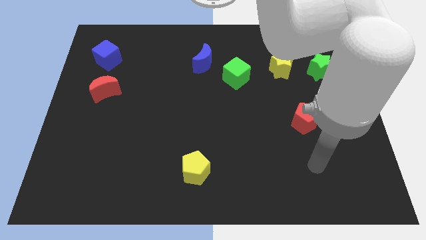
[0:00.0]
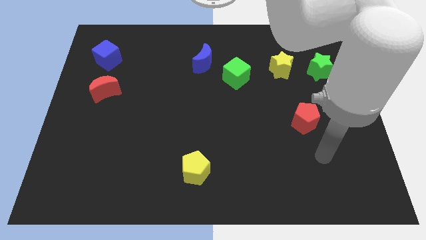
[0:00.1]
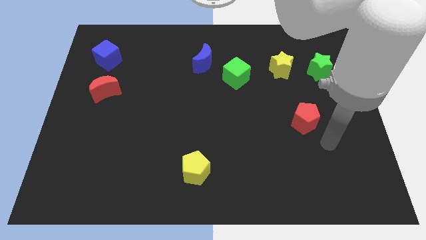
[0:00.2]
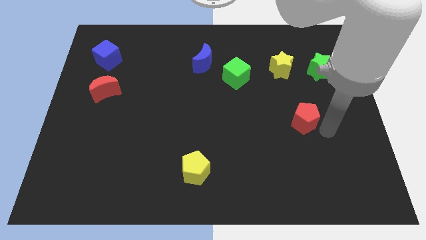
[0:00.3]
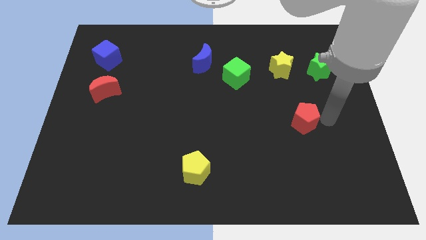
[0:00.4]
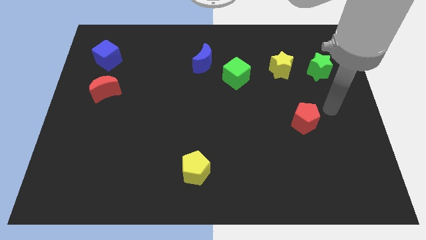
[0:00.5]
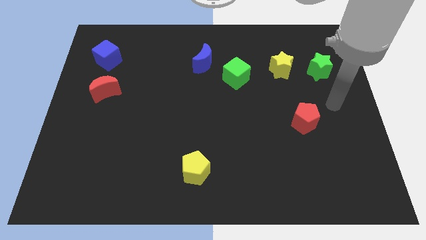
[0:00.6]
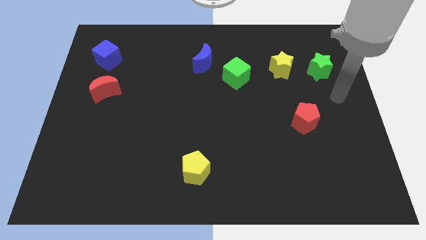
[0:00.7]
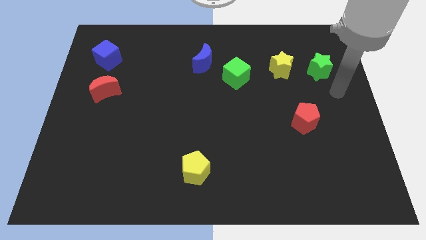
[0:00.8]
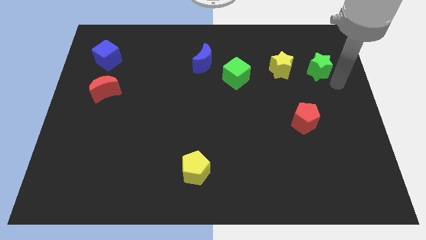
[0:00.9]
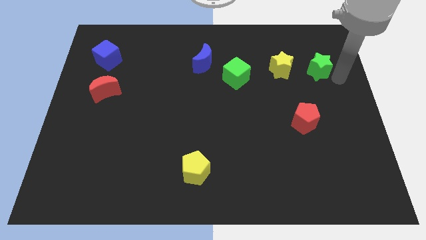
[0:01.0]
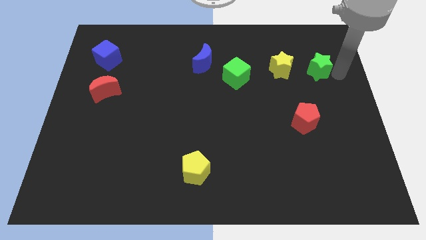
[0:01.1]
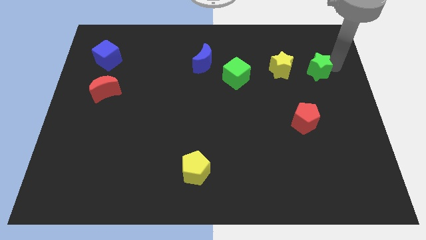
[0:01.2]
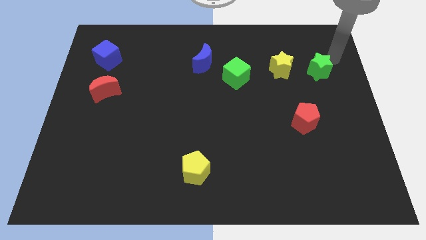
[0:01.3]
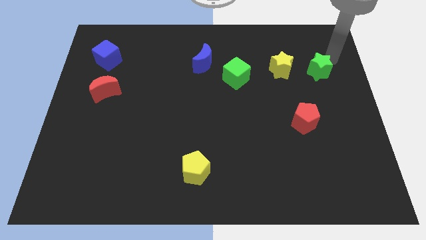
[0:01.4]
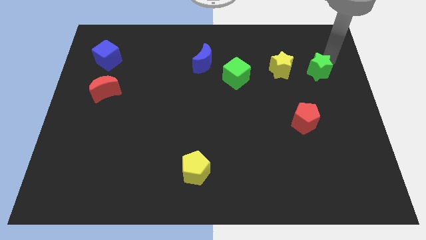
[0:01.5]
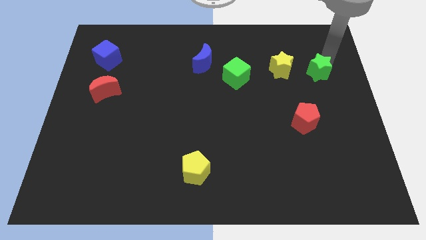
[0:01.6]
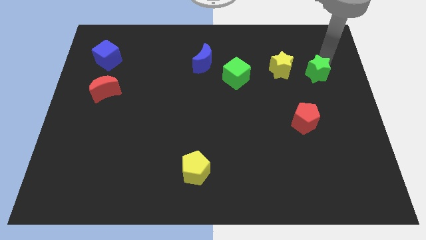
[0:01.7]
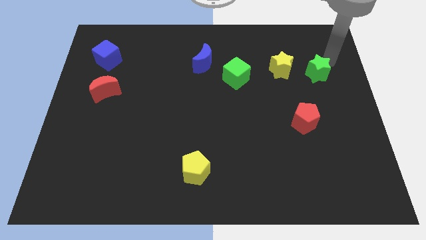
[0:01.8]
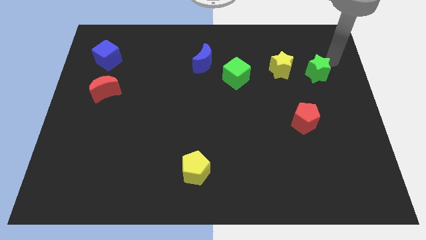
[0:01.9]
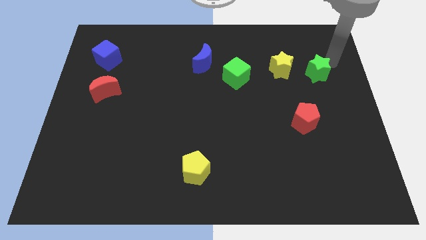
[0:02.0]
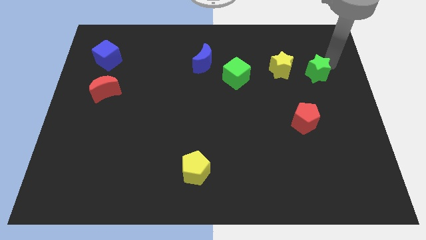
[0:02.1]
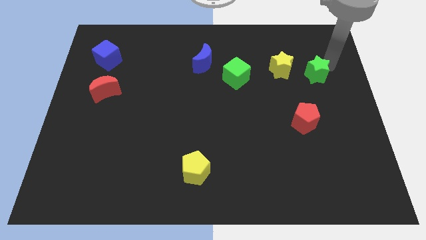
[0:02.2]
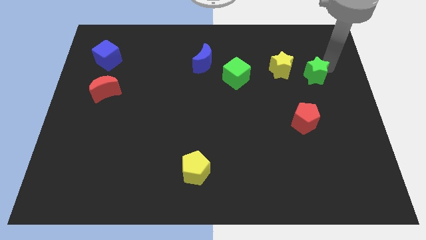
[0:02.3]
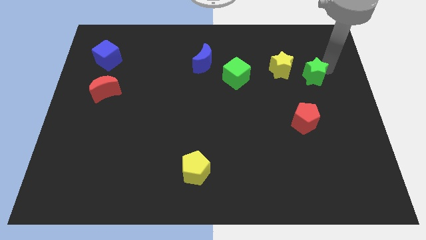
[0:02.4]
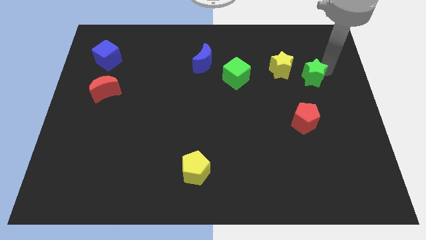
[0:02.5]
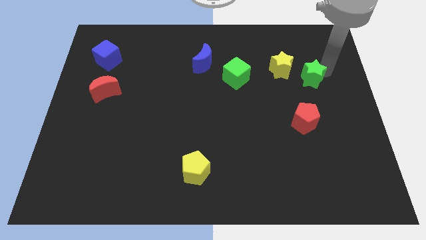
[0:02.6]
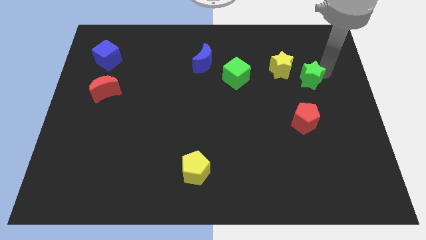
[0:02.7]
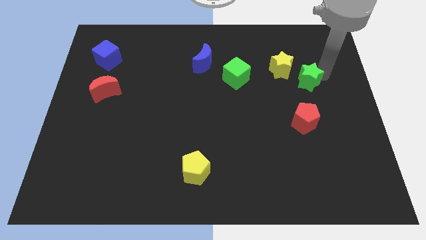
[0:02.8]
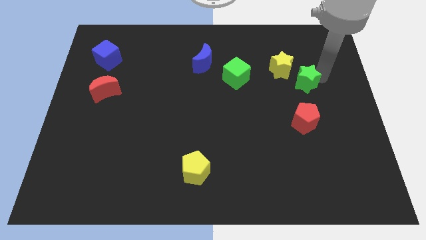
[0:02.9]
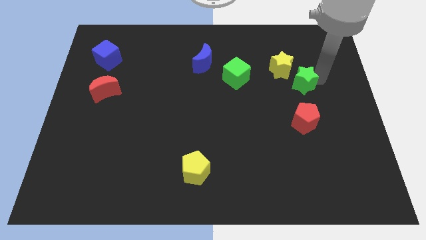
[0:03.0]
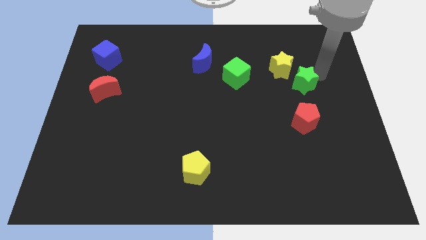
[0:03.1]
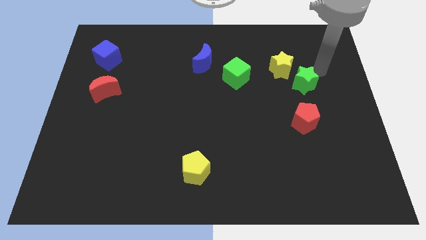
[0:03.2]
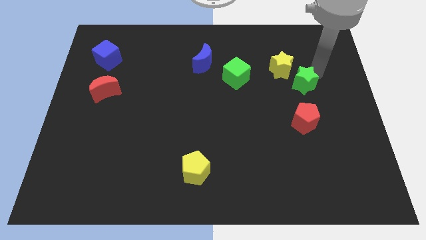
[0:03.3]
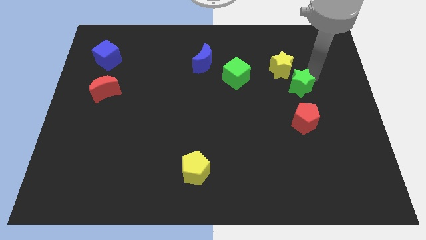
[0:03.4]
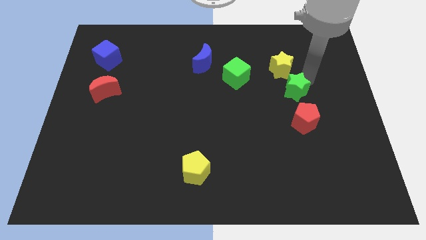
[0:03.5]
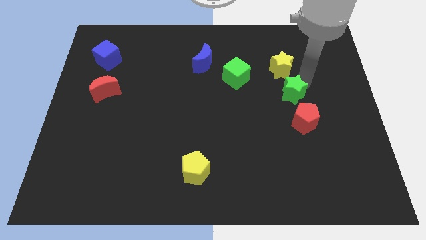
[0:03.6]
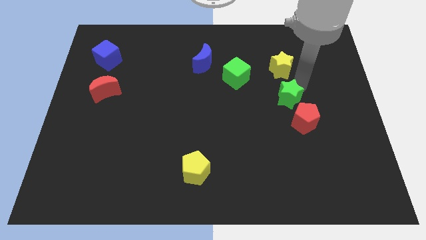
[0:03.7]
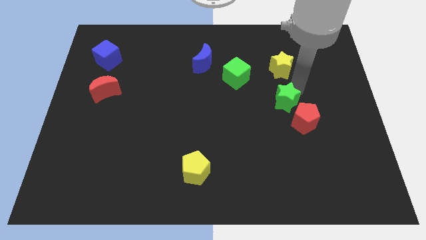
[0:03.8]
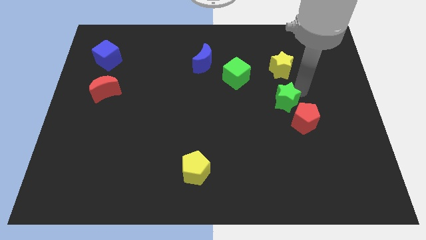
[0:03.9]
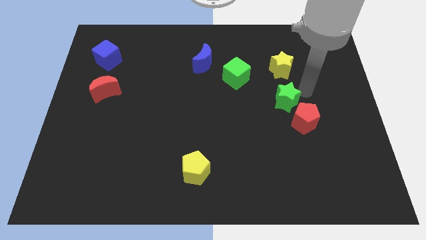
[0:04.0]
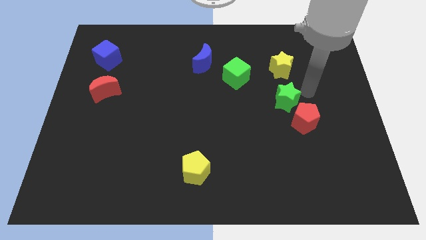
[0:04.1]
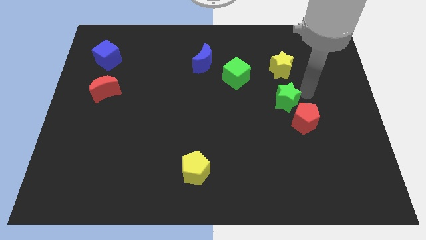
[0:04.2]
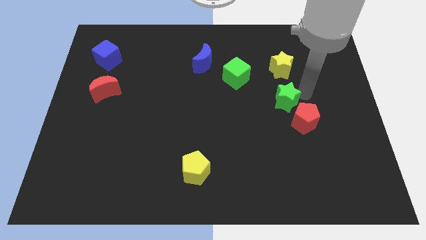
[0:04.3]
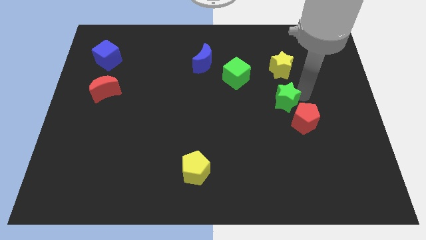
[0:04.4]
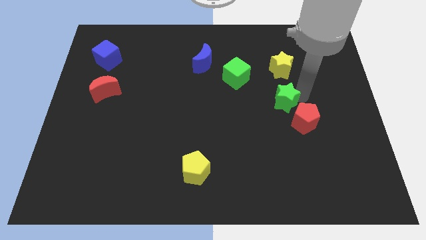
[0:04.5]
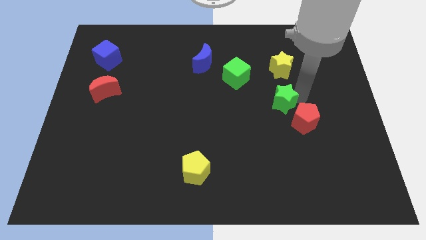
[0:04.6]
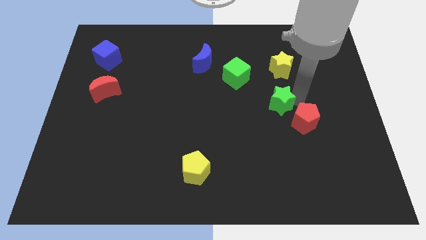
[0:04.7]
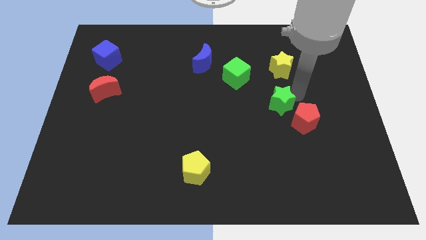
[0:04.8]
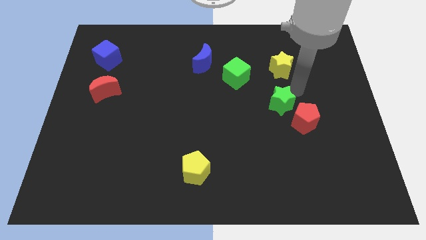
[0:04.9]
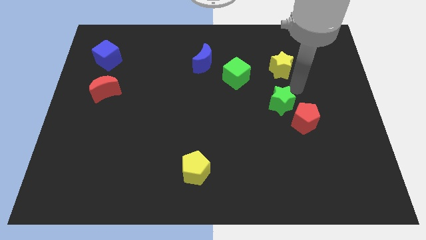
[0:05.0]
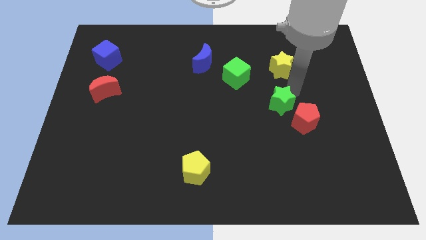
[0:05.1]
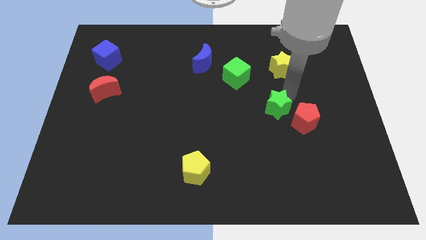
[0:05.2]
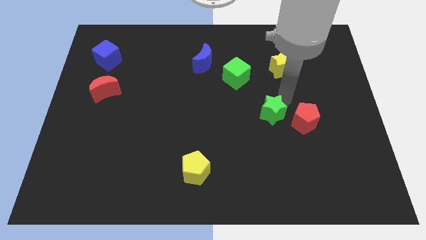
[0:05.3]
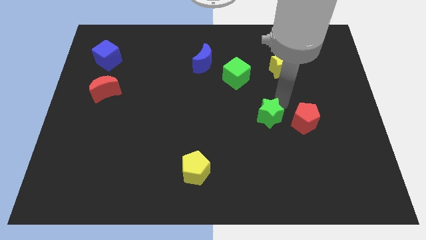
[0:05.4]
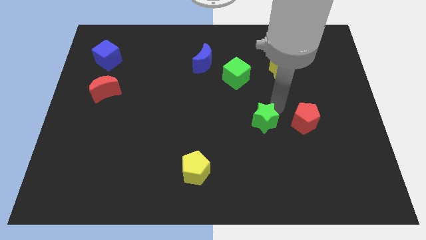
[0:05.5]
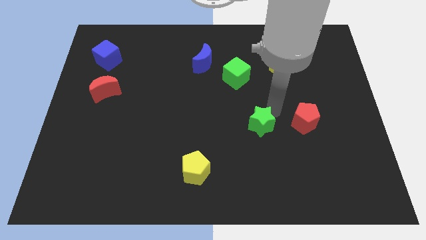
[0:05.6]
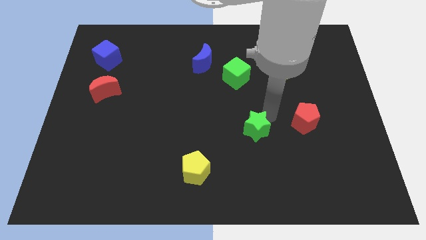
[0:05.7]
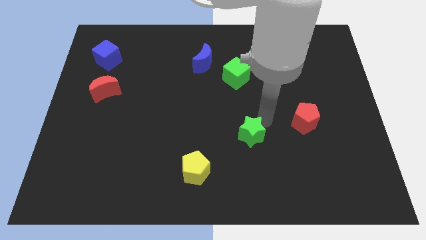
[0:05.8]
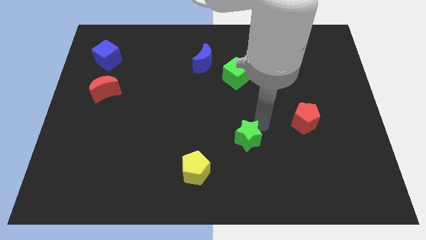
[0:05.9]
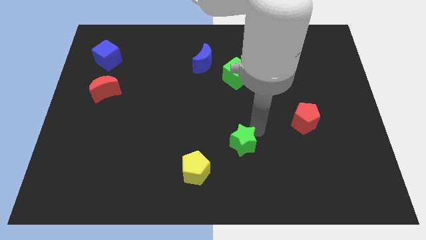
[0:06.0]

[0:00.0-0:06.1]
push the green star to the top right of the yellow pentagon
